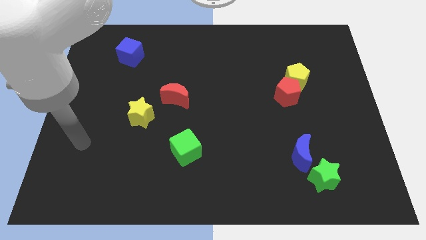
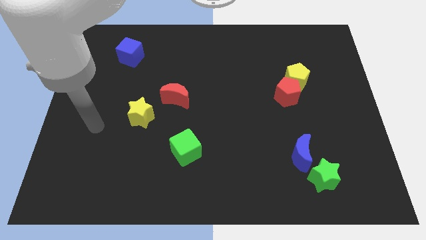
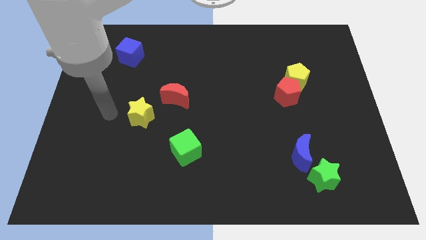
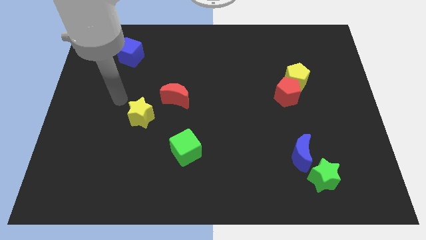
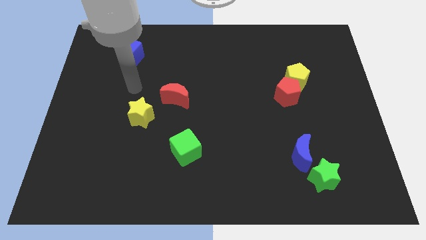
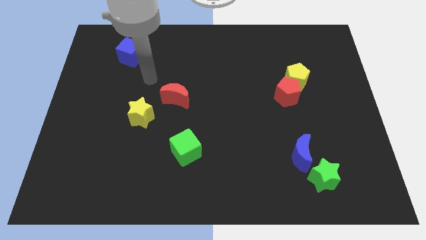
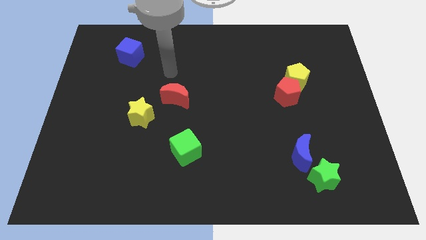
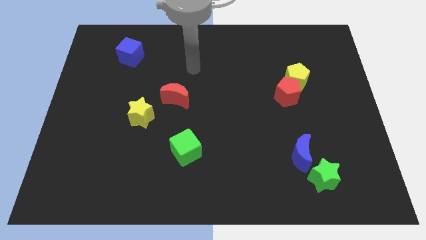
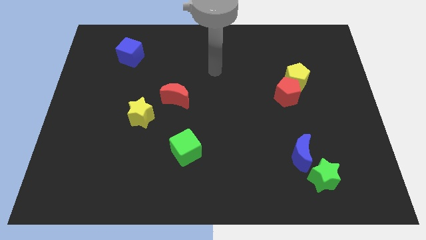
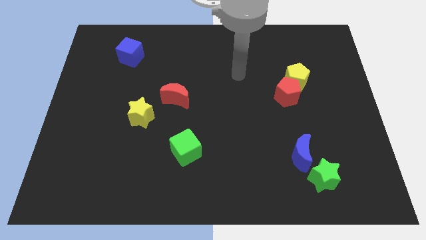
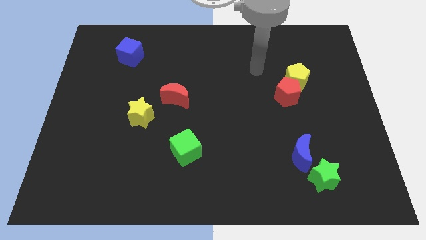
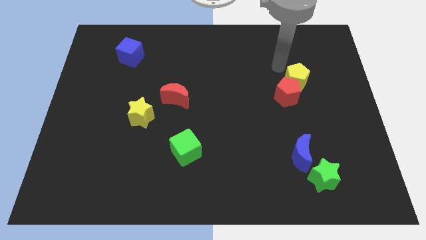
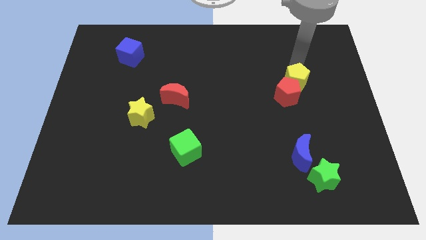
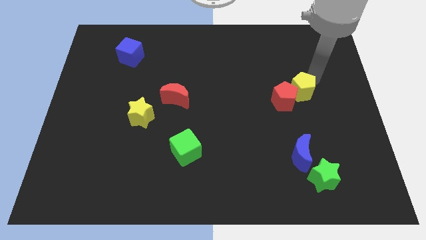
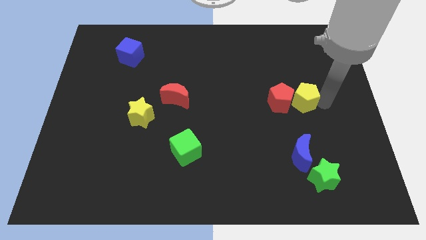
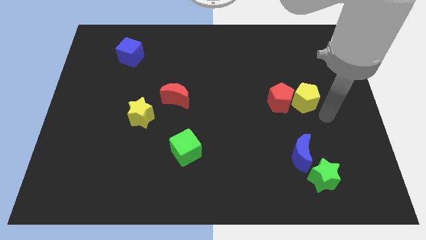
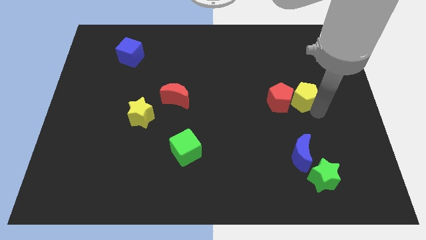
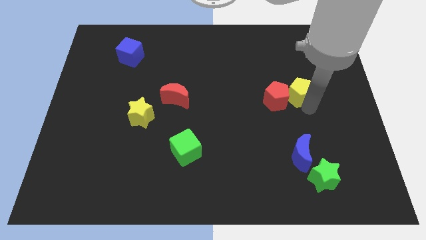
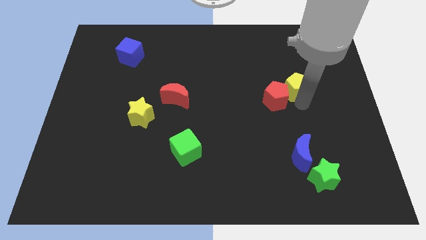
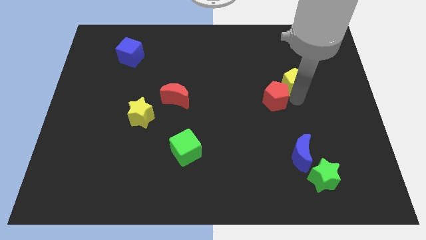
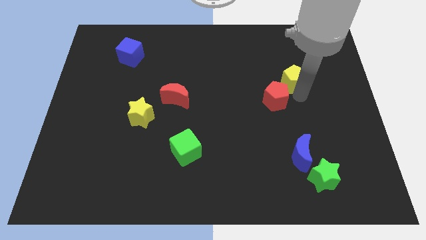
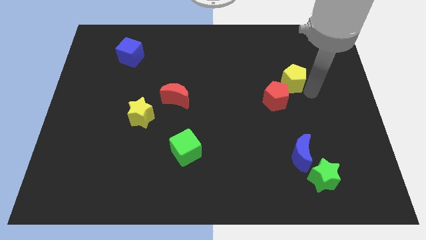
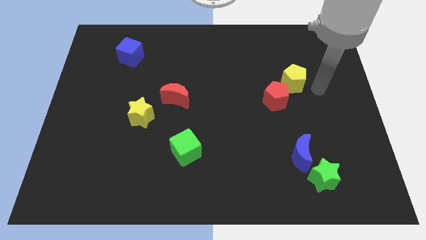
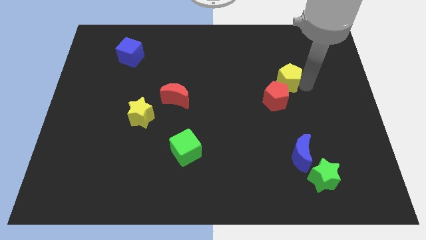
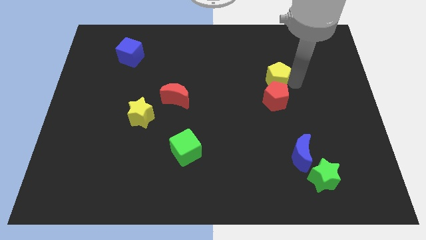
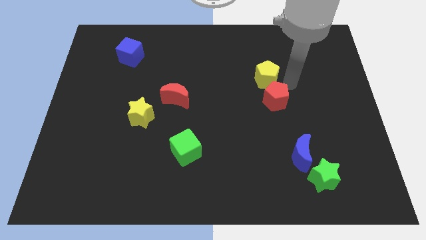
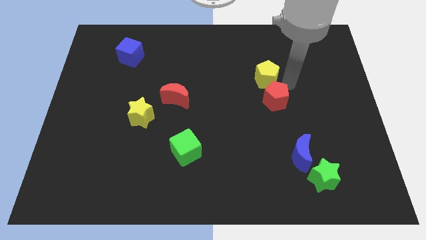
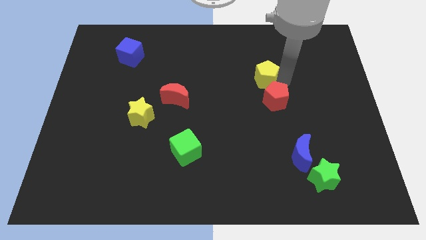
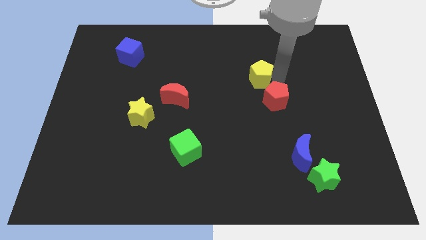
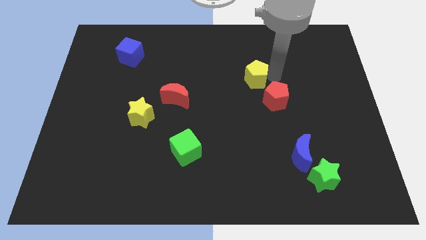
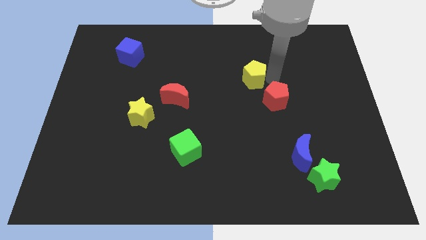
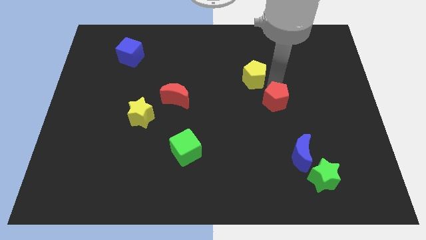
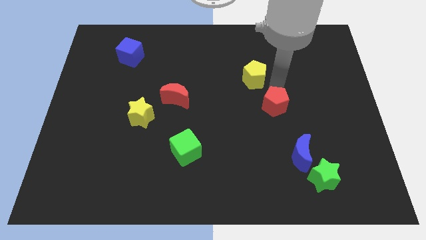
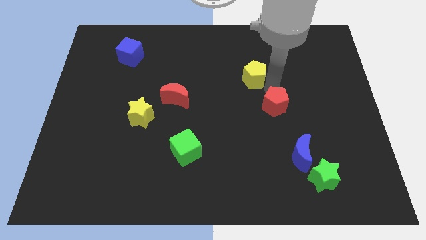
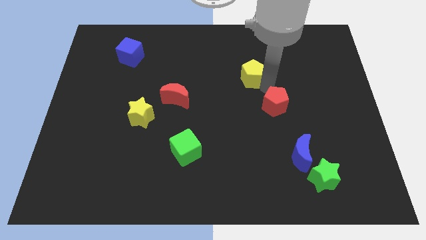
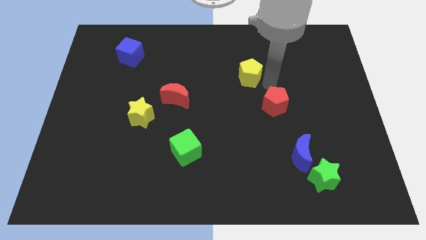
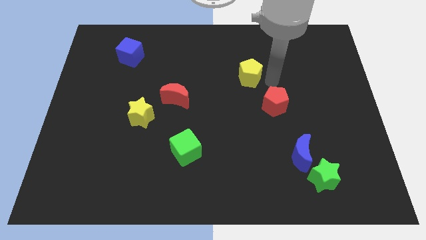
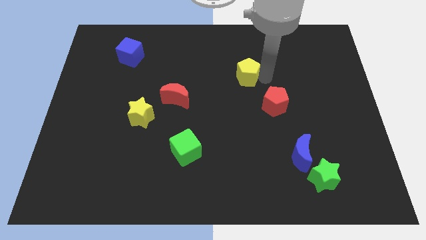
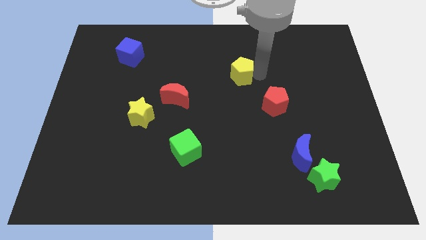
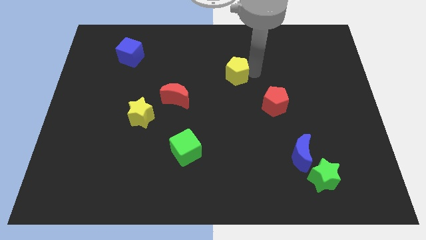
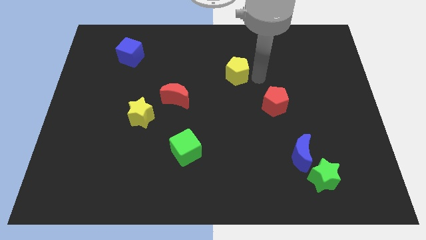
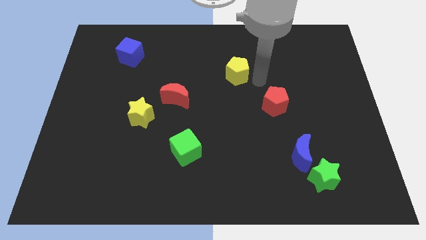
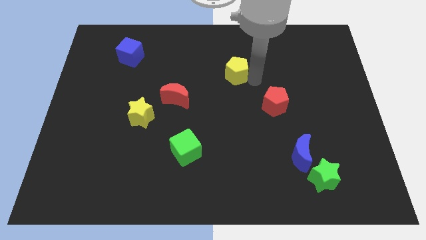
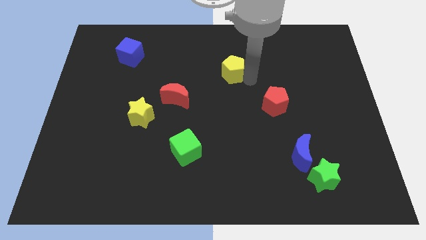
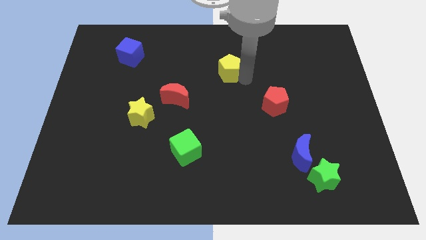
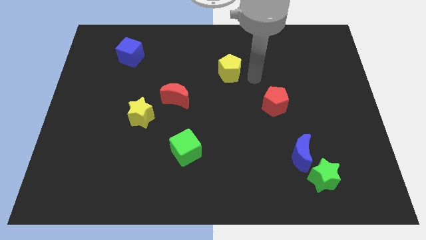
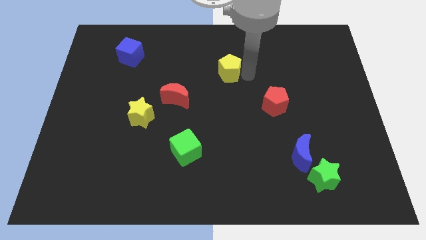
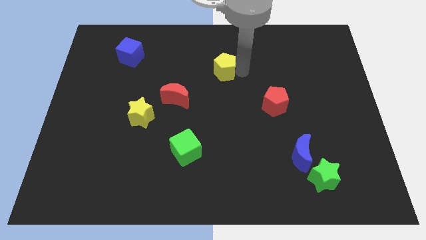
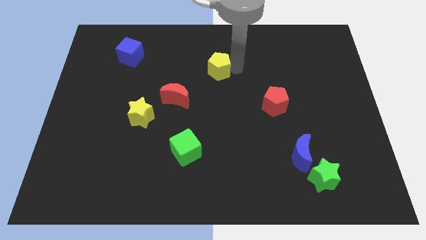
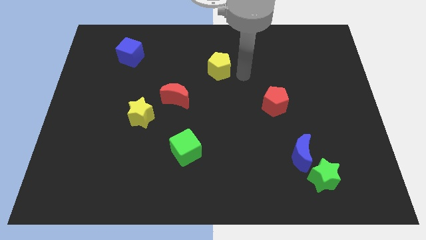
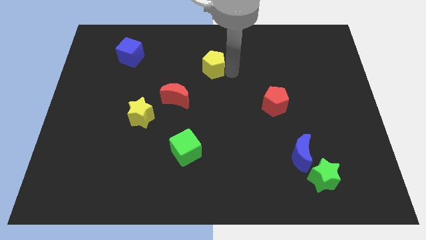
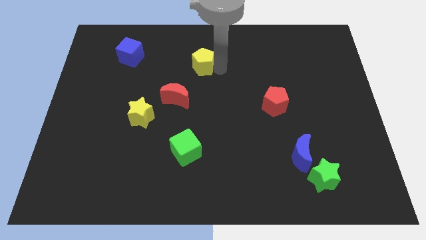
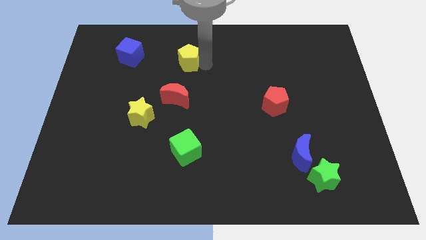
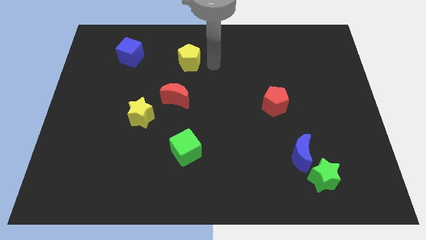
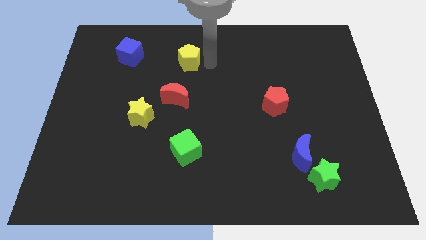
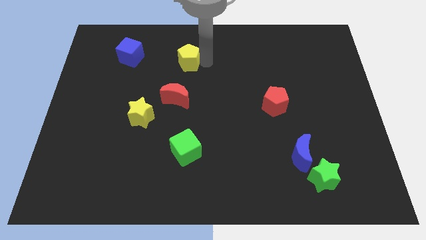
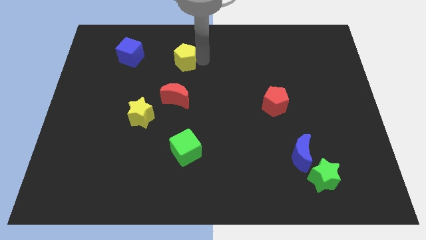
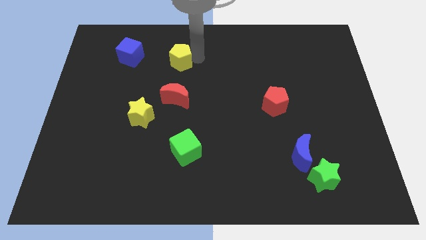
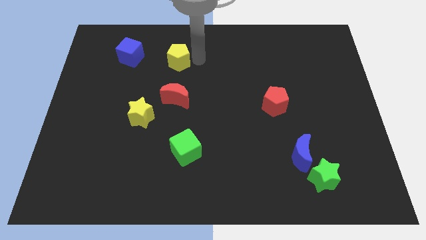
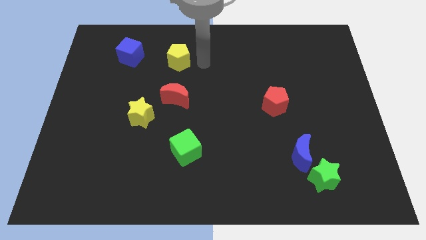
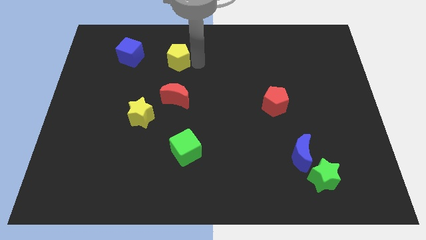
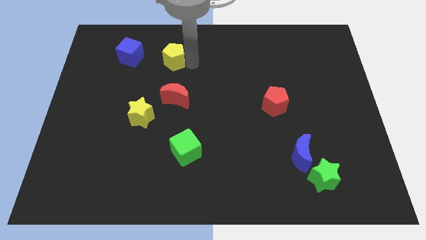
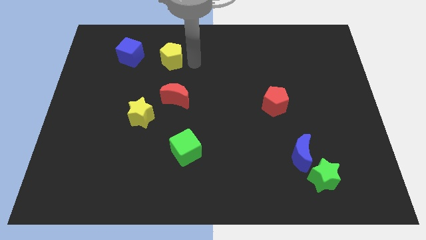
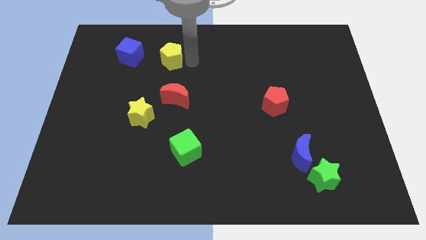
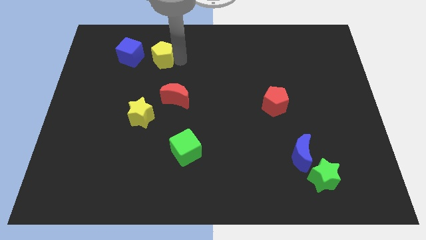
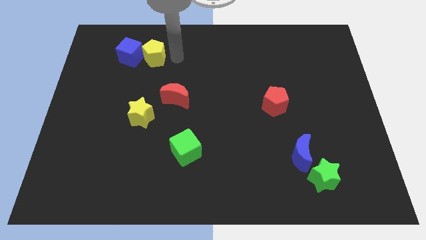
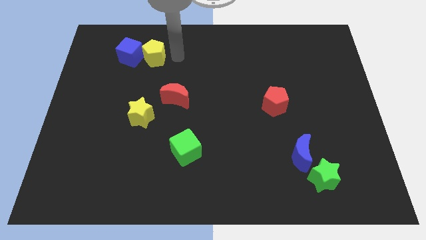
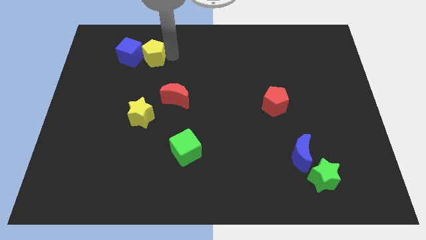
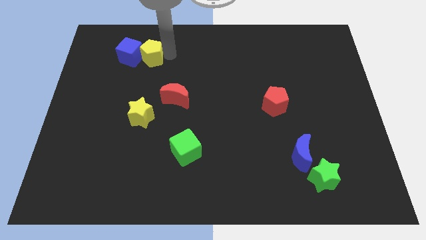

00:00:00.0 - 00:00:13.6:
put the yellow pentagon close to the blue cube
